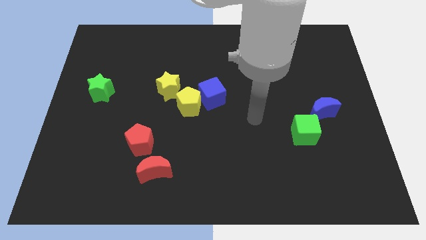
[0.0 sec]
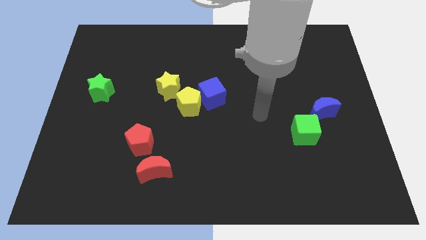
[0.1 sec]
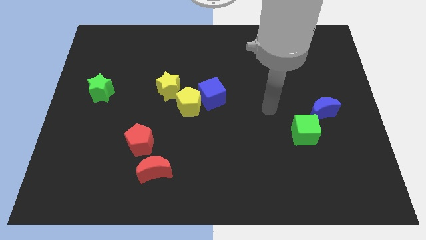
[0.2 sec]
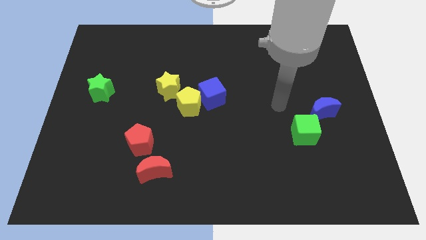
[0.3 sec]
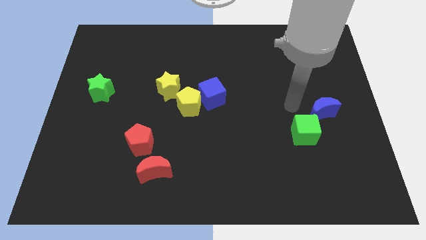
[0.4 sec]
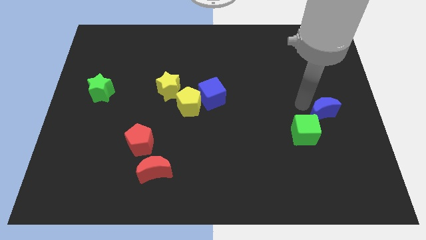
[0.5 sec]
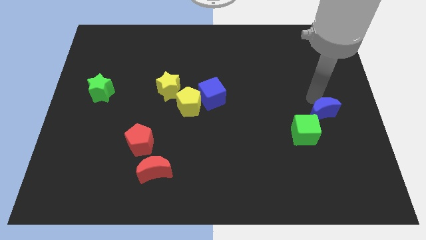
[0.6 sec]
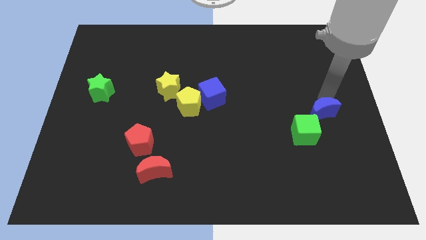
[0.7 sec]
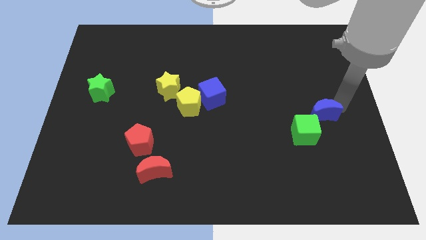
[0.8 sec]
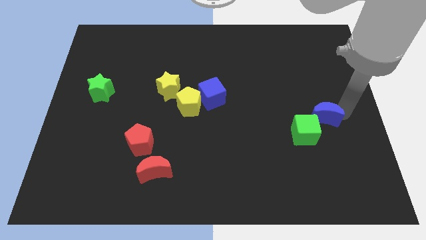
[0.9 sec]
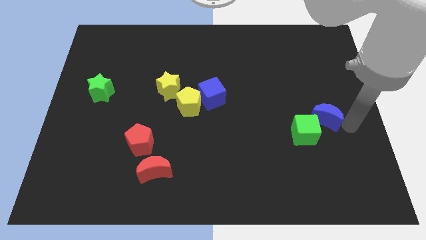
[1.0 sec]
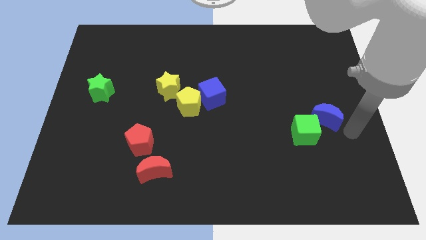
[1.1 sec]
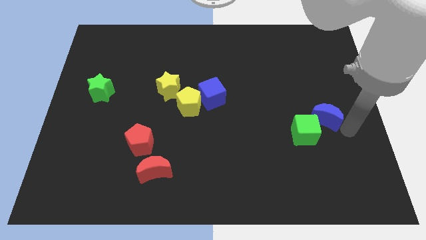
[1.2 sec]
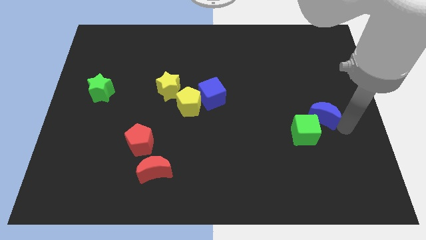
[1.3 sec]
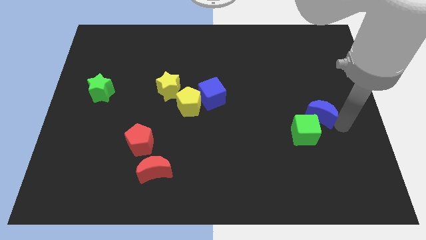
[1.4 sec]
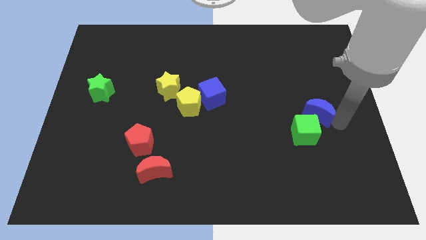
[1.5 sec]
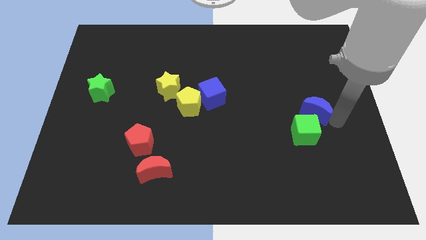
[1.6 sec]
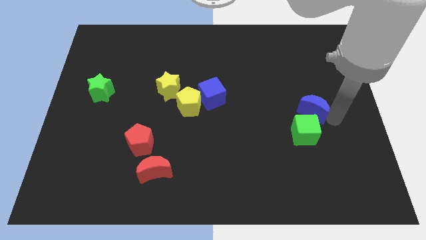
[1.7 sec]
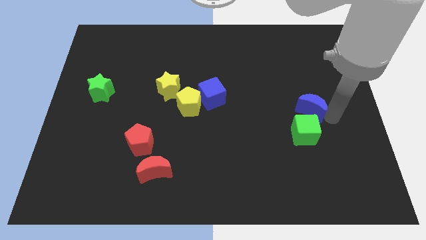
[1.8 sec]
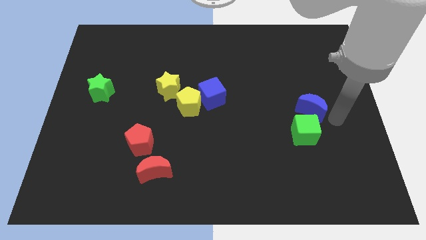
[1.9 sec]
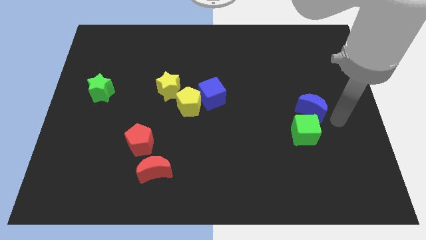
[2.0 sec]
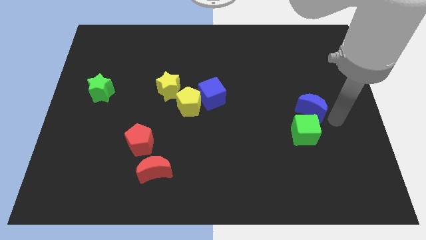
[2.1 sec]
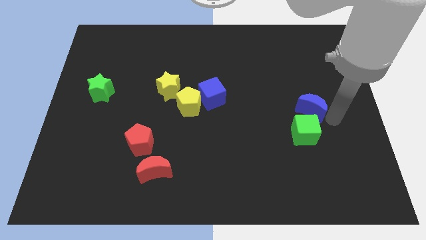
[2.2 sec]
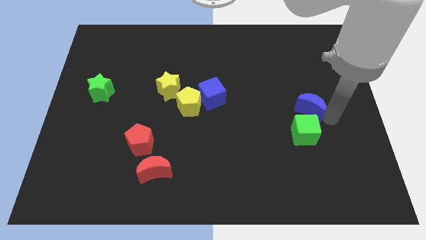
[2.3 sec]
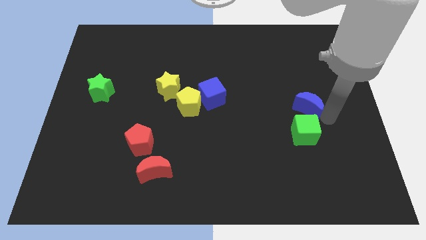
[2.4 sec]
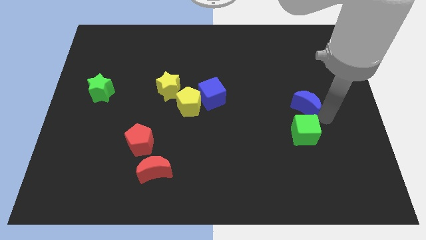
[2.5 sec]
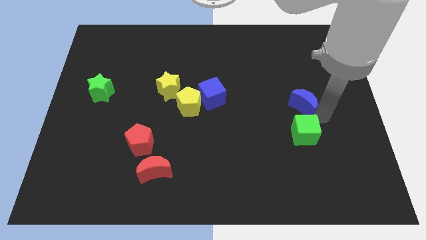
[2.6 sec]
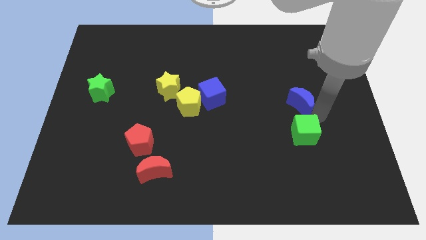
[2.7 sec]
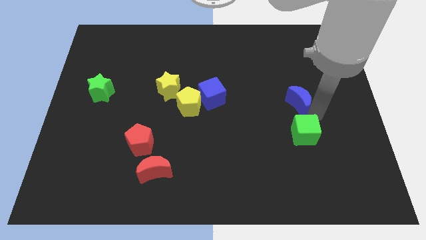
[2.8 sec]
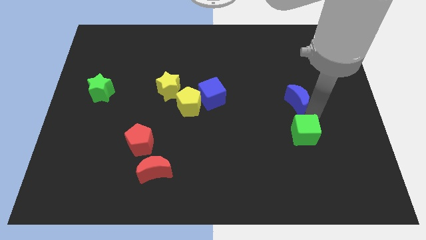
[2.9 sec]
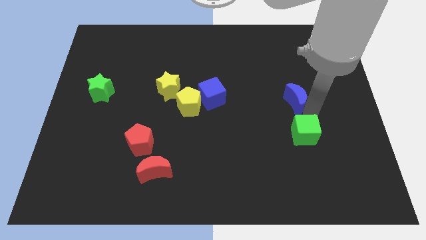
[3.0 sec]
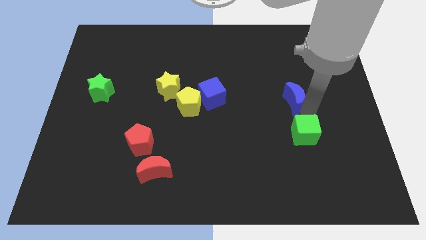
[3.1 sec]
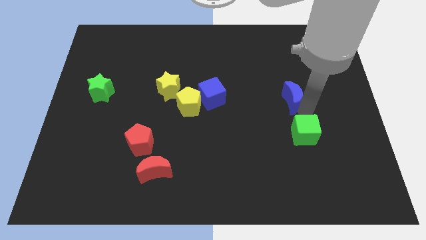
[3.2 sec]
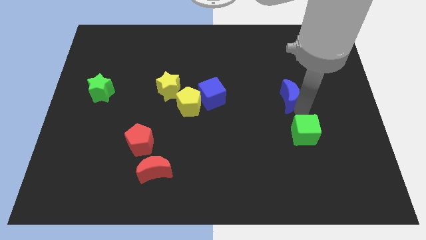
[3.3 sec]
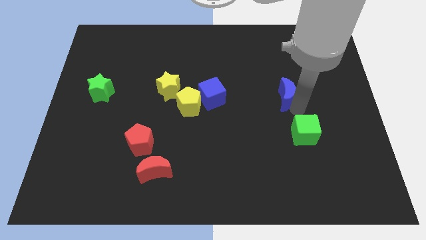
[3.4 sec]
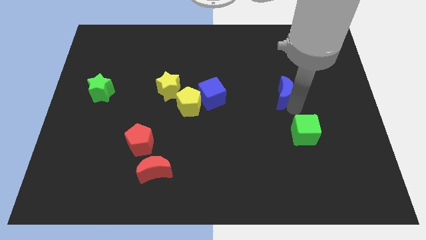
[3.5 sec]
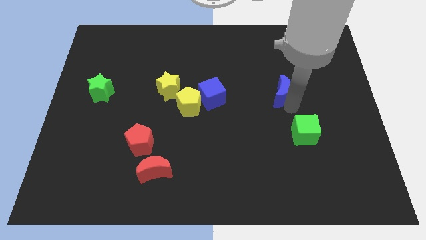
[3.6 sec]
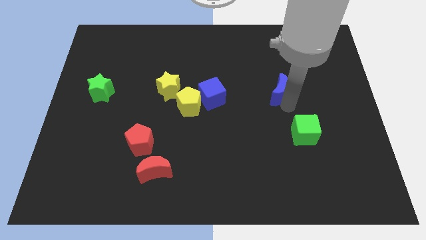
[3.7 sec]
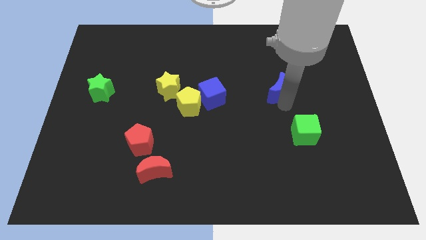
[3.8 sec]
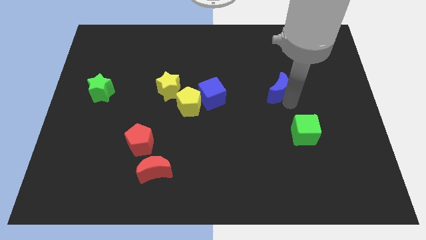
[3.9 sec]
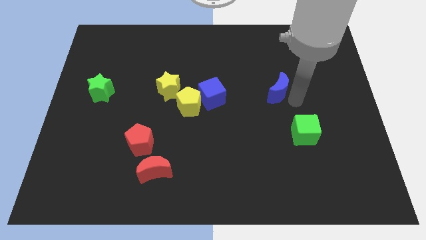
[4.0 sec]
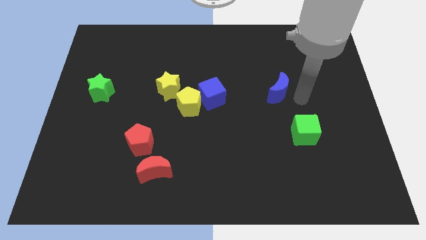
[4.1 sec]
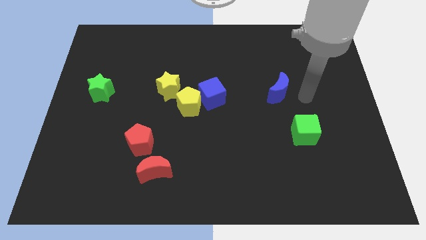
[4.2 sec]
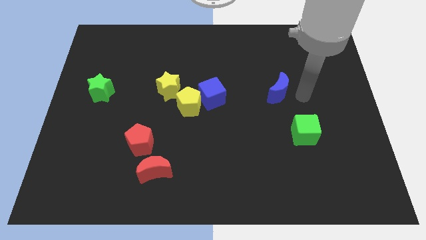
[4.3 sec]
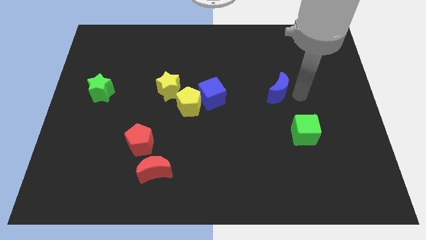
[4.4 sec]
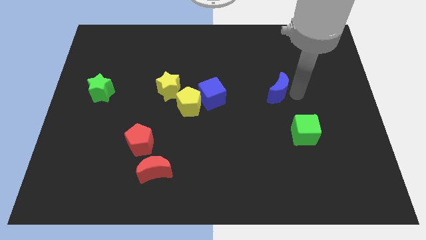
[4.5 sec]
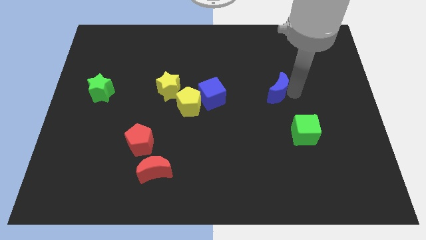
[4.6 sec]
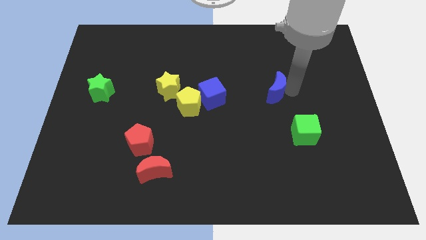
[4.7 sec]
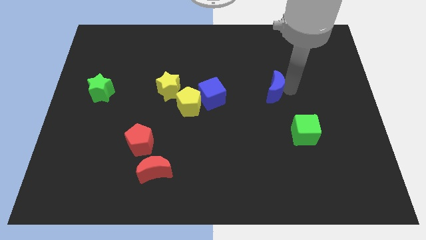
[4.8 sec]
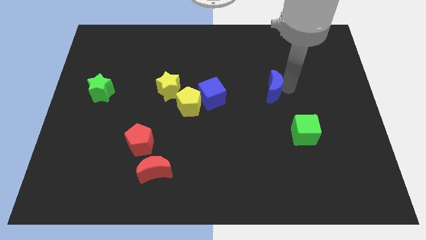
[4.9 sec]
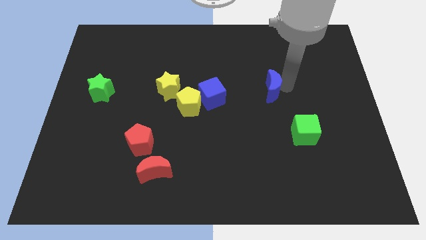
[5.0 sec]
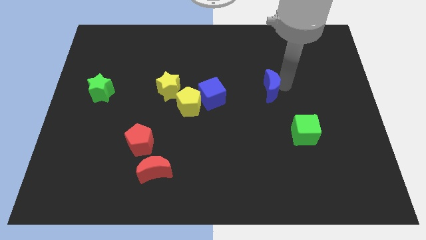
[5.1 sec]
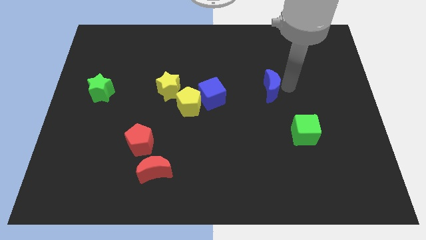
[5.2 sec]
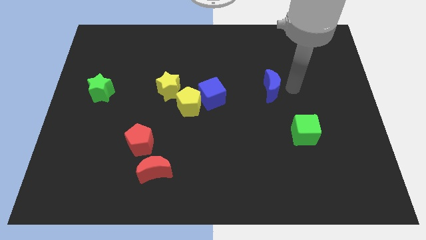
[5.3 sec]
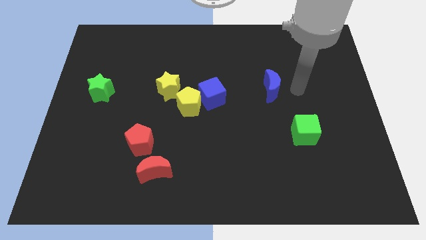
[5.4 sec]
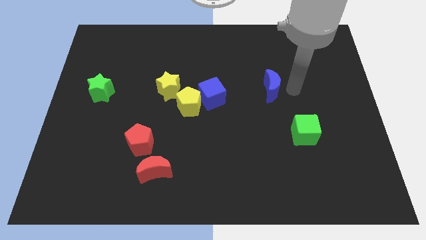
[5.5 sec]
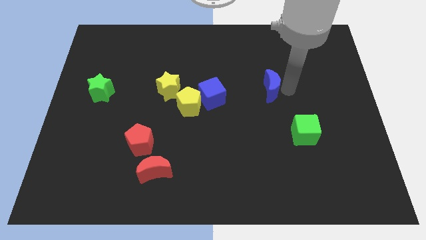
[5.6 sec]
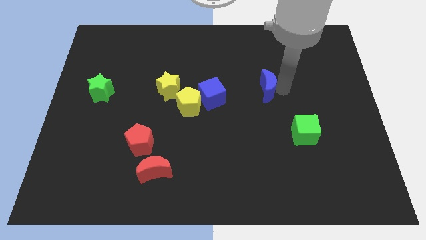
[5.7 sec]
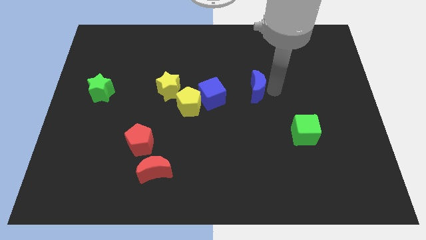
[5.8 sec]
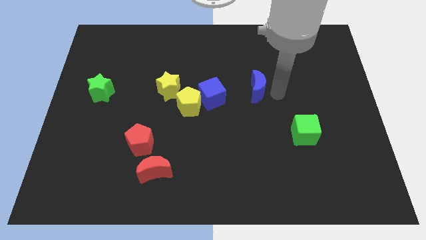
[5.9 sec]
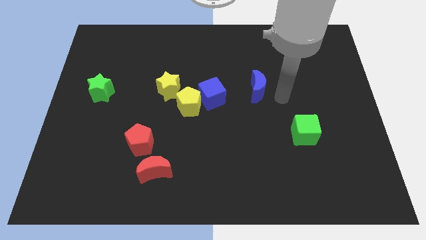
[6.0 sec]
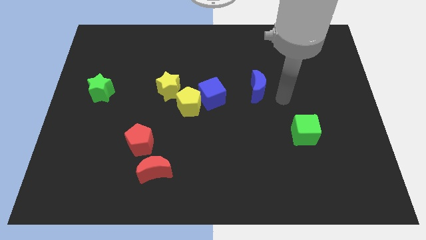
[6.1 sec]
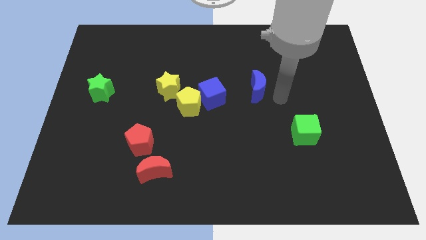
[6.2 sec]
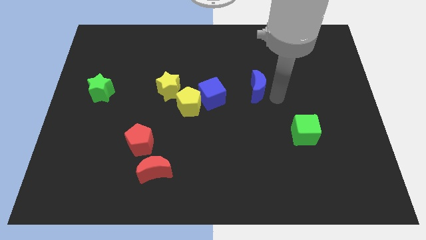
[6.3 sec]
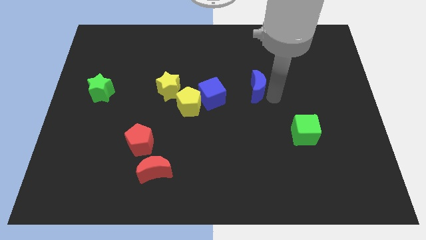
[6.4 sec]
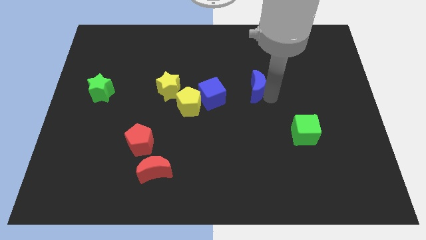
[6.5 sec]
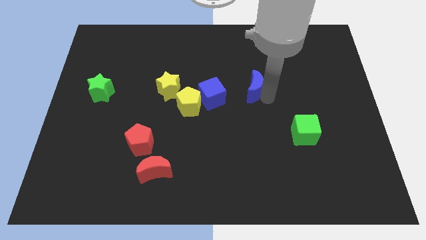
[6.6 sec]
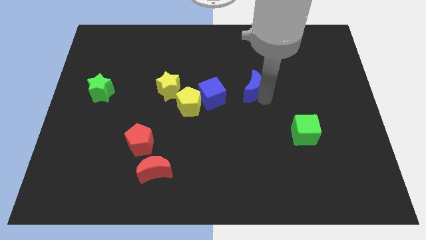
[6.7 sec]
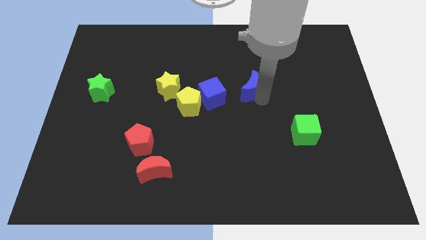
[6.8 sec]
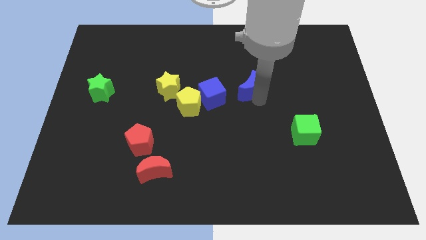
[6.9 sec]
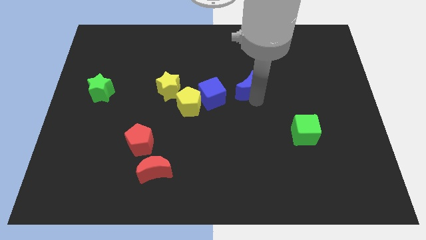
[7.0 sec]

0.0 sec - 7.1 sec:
put the blue moon diagonally up and to the right of the blue cube
